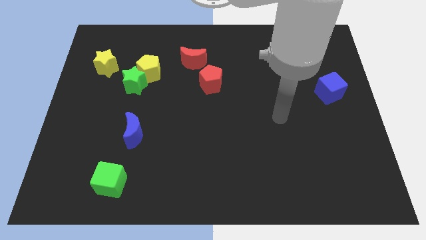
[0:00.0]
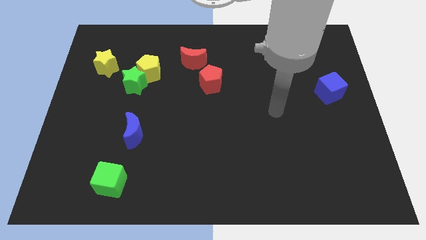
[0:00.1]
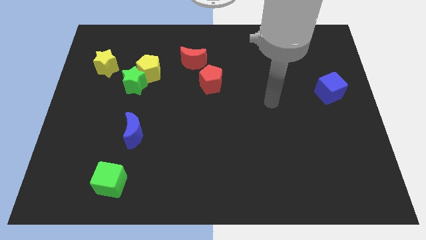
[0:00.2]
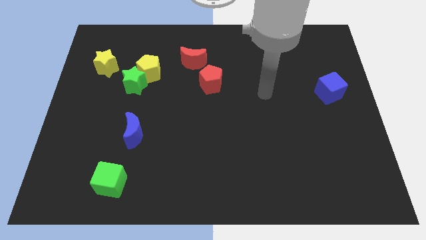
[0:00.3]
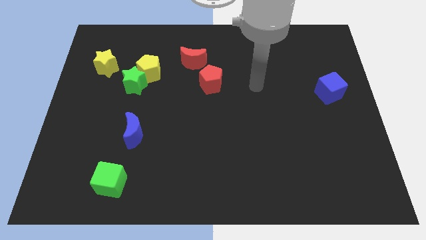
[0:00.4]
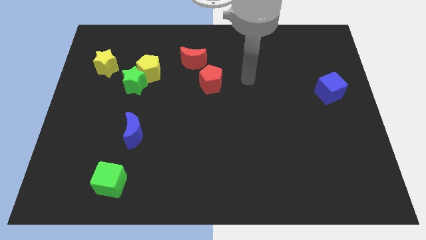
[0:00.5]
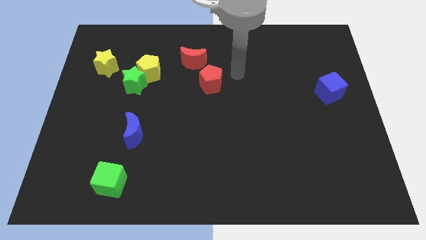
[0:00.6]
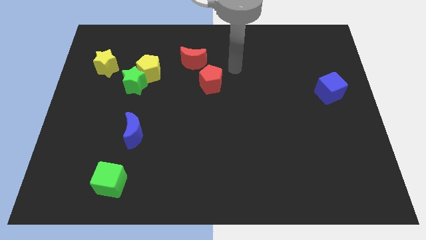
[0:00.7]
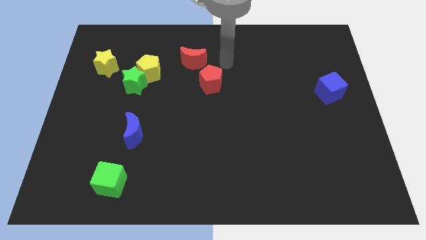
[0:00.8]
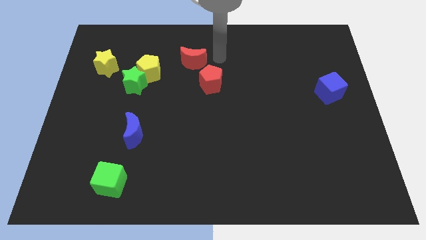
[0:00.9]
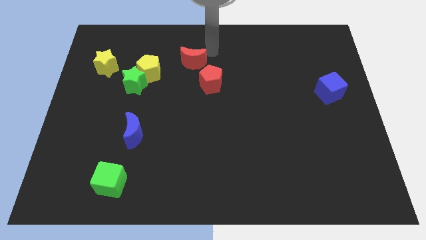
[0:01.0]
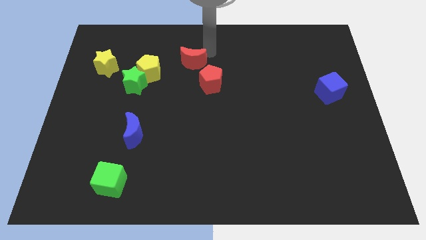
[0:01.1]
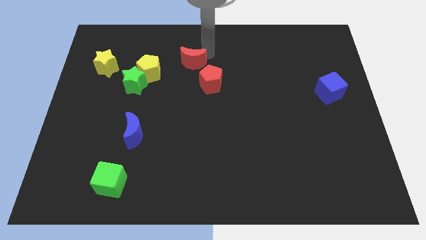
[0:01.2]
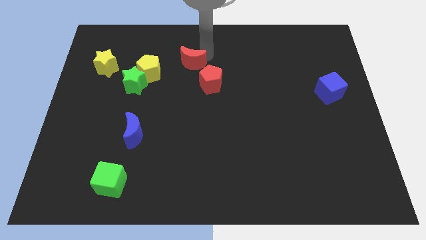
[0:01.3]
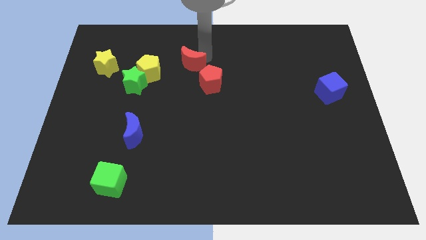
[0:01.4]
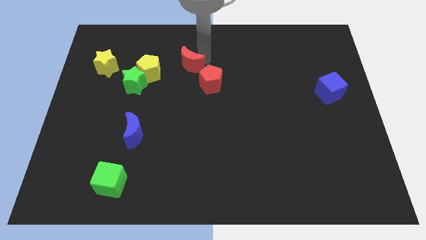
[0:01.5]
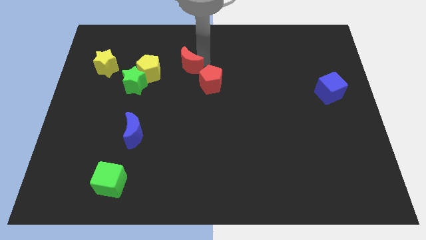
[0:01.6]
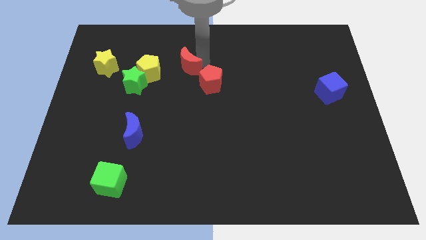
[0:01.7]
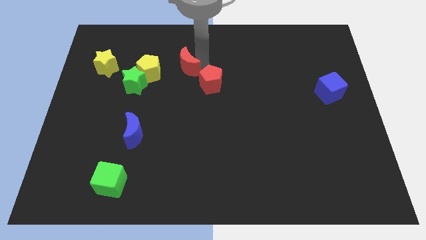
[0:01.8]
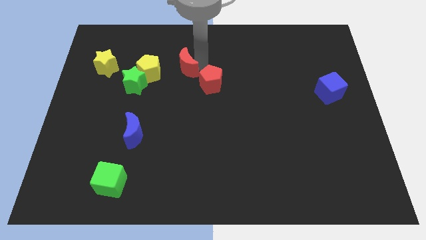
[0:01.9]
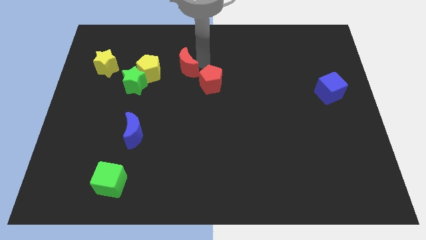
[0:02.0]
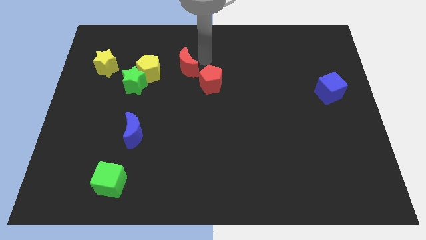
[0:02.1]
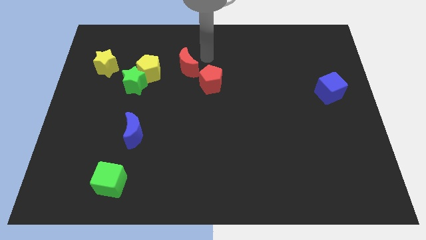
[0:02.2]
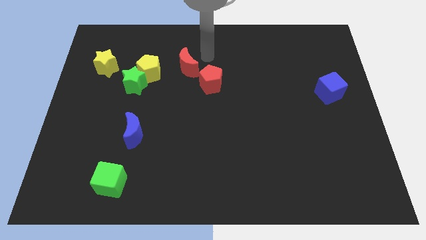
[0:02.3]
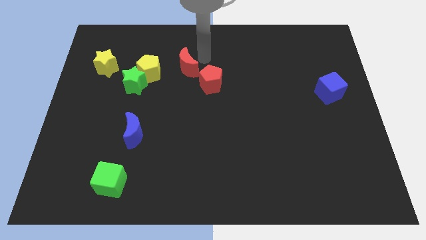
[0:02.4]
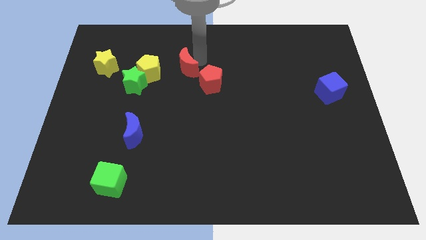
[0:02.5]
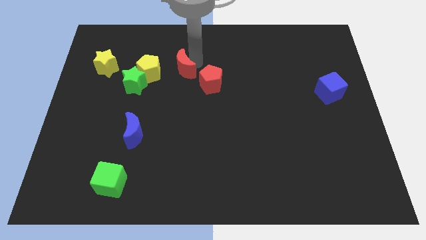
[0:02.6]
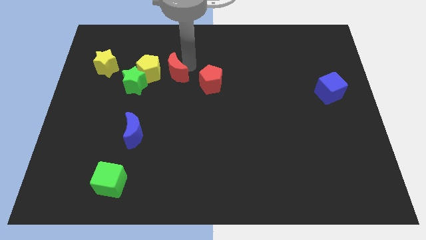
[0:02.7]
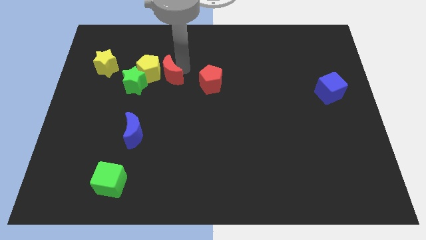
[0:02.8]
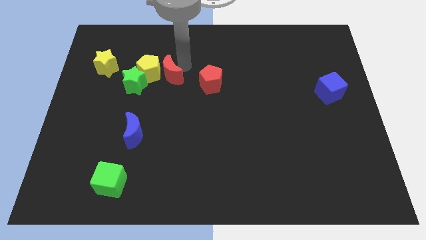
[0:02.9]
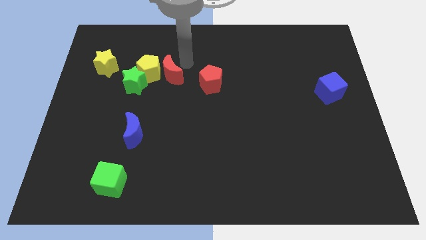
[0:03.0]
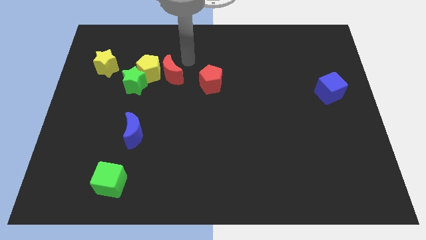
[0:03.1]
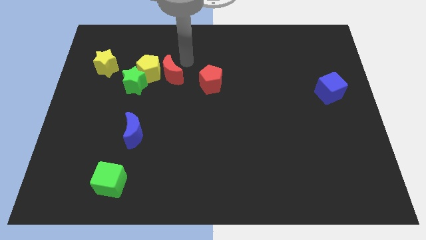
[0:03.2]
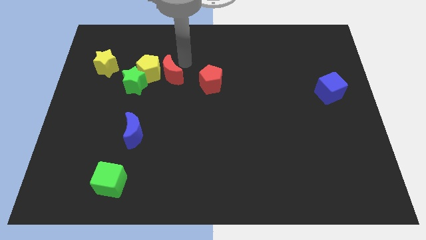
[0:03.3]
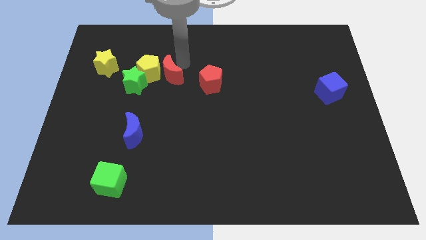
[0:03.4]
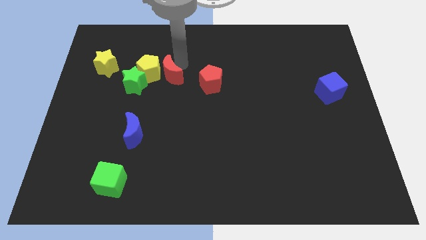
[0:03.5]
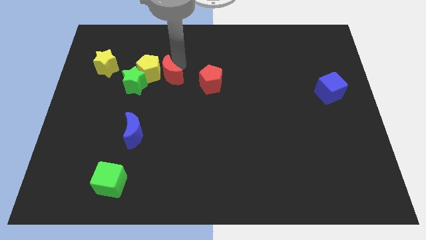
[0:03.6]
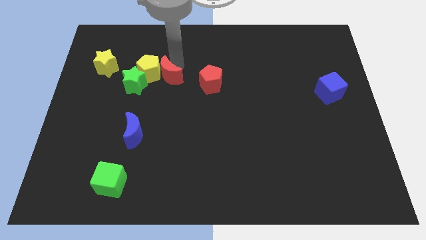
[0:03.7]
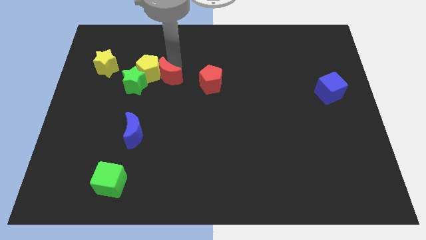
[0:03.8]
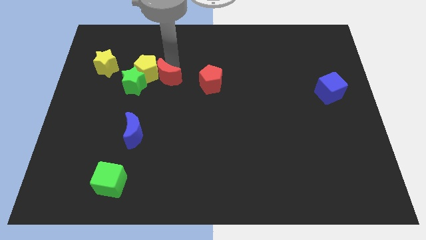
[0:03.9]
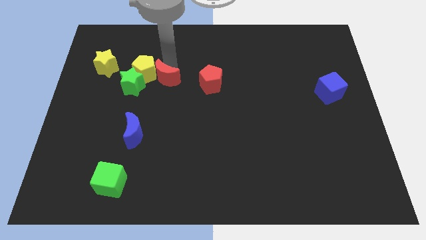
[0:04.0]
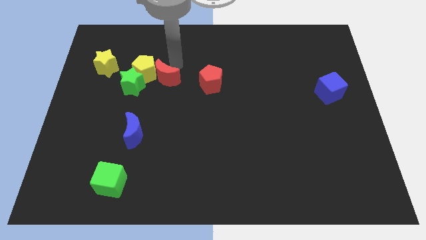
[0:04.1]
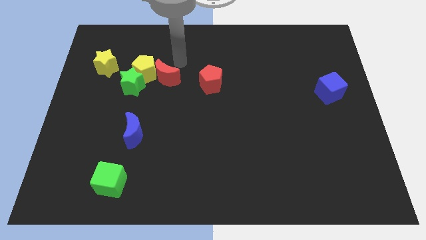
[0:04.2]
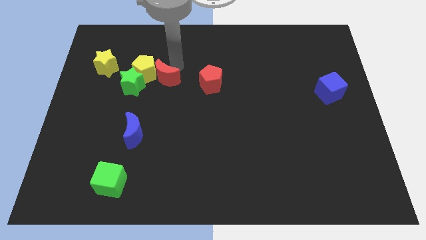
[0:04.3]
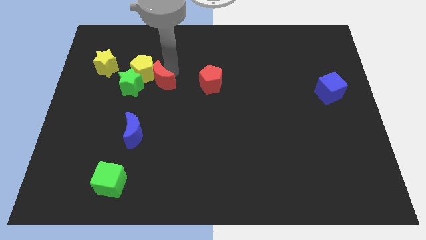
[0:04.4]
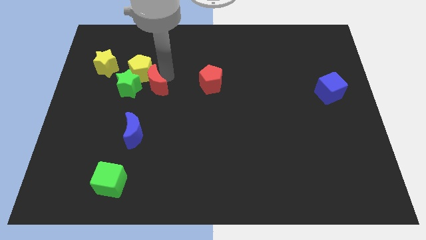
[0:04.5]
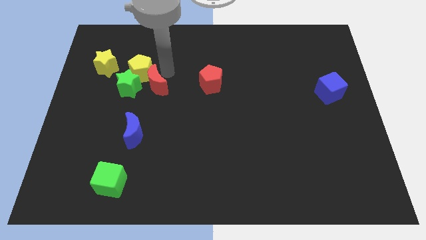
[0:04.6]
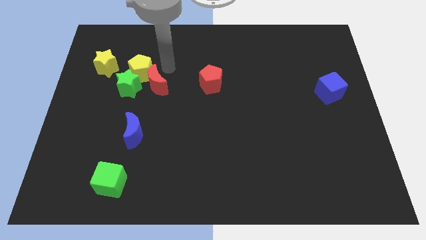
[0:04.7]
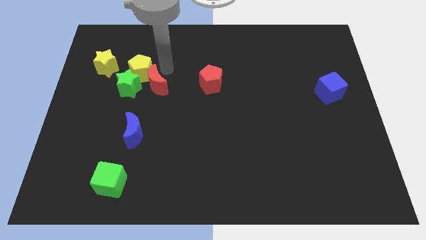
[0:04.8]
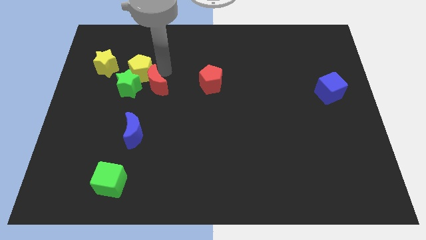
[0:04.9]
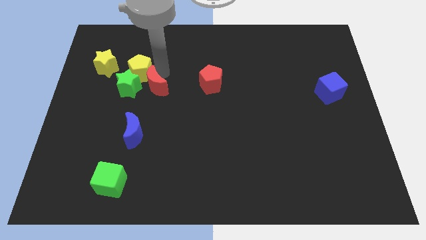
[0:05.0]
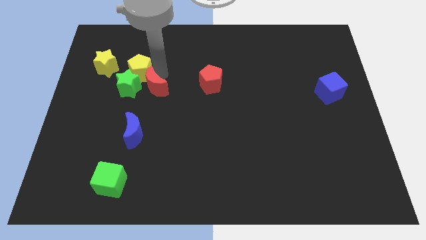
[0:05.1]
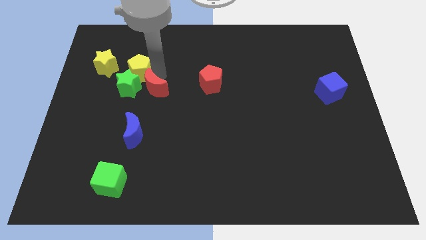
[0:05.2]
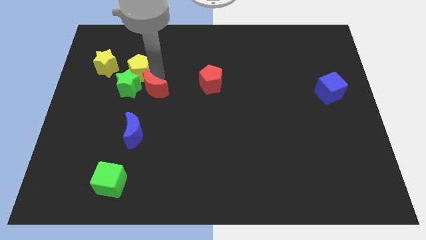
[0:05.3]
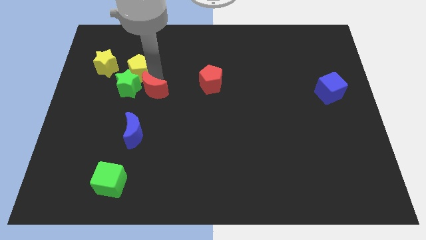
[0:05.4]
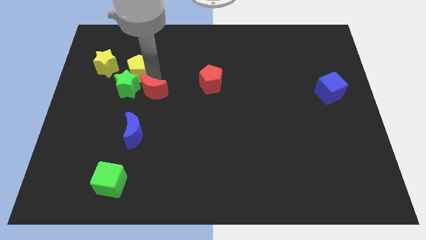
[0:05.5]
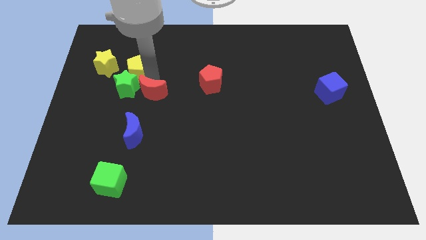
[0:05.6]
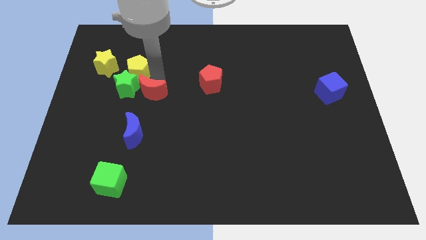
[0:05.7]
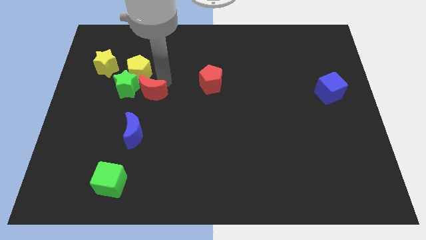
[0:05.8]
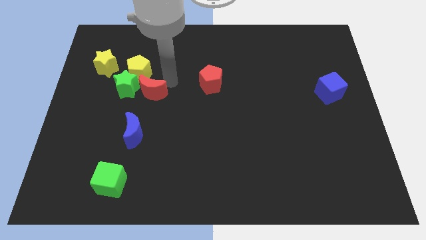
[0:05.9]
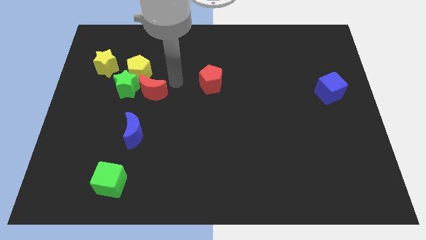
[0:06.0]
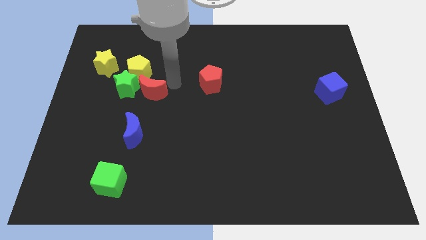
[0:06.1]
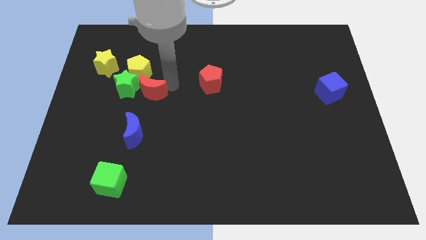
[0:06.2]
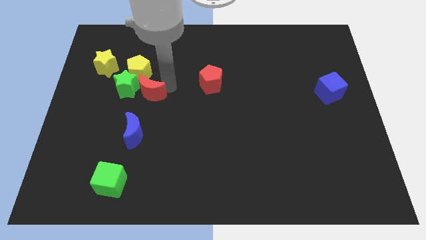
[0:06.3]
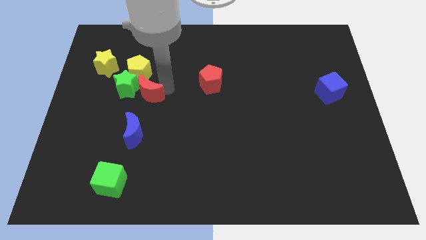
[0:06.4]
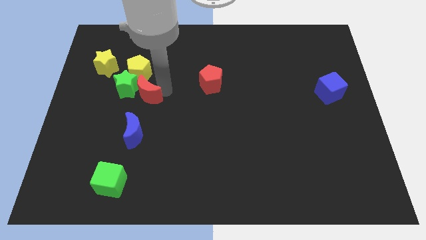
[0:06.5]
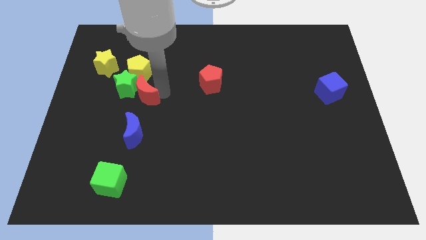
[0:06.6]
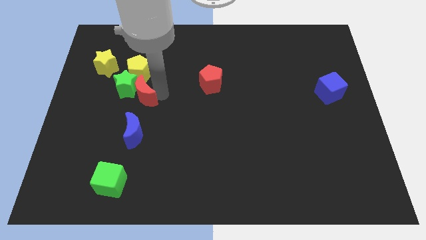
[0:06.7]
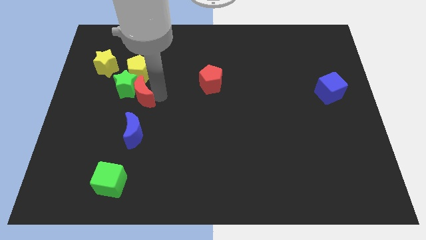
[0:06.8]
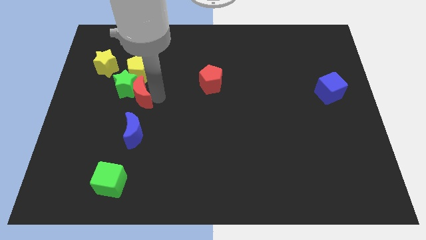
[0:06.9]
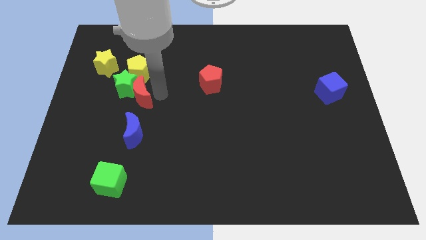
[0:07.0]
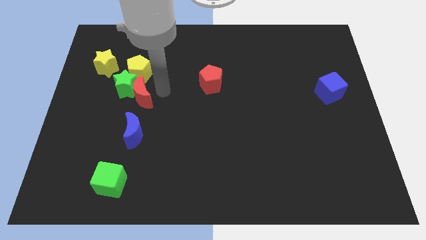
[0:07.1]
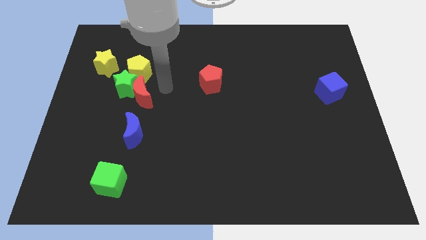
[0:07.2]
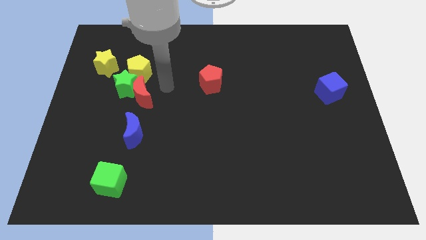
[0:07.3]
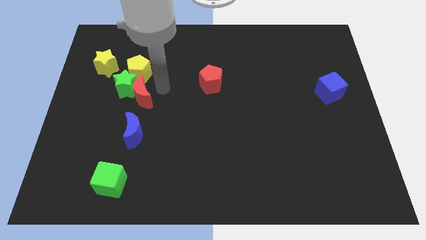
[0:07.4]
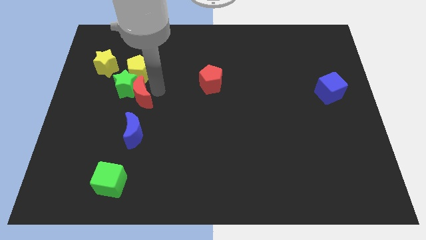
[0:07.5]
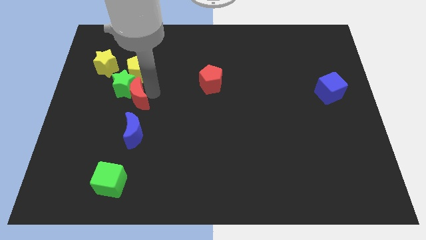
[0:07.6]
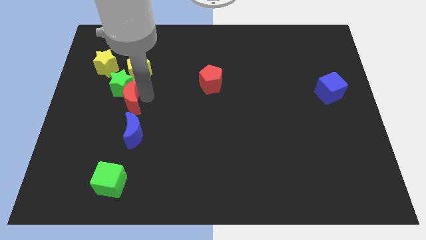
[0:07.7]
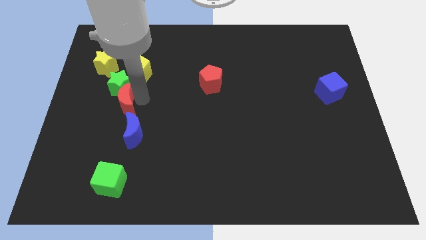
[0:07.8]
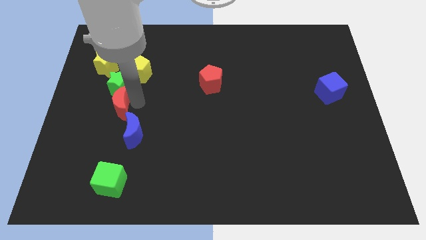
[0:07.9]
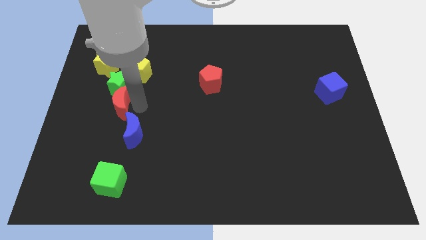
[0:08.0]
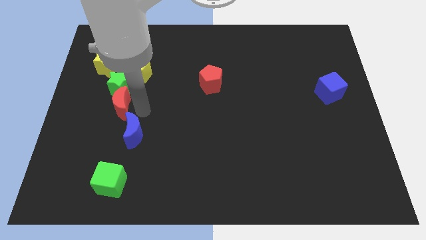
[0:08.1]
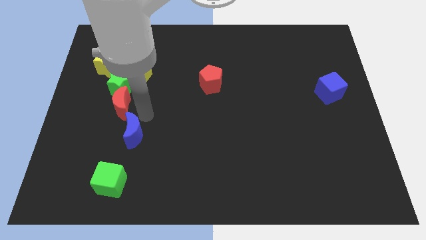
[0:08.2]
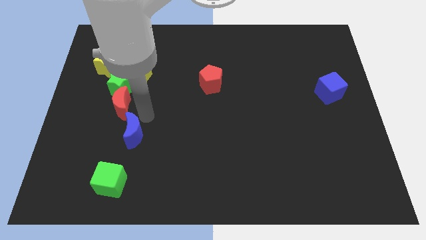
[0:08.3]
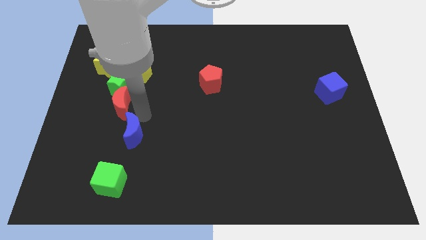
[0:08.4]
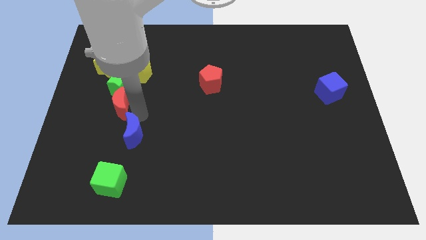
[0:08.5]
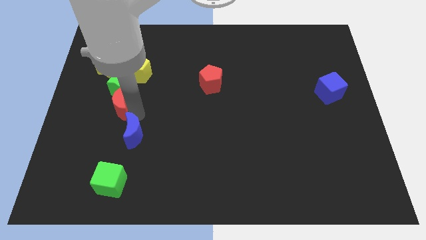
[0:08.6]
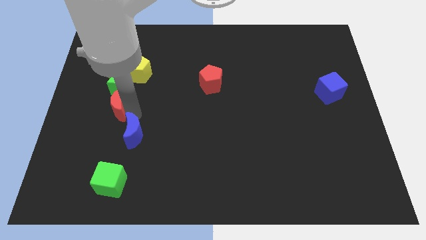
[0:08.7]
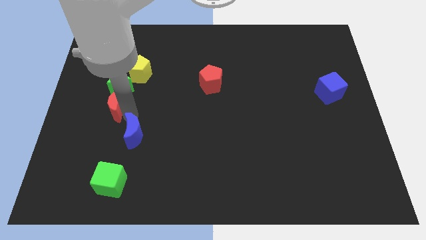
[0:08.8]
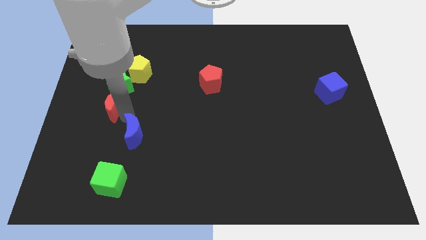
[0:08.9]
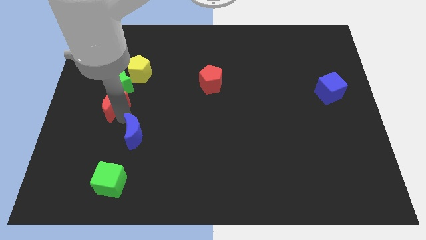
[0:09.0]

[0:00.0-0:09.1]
put the red moon to the bottom of the yellow star
